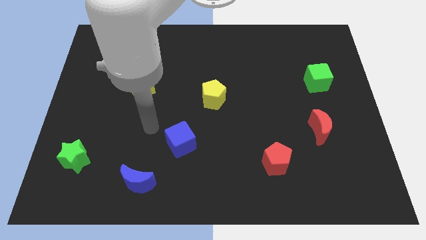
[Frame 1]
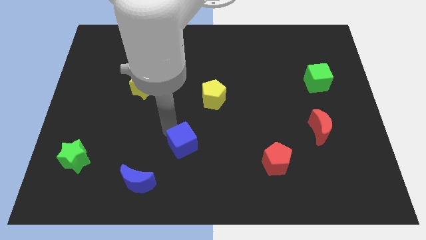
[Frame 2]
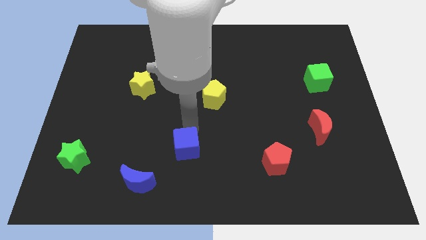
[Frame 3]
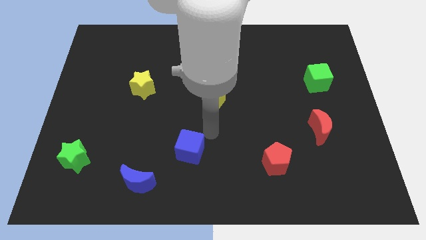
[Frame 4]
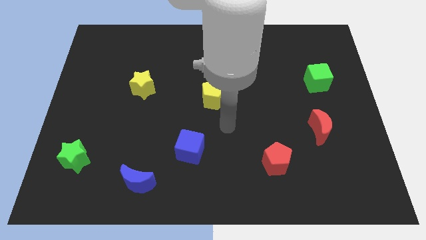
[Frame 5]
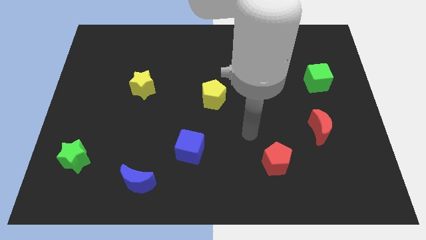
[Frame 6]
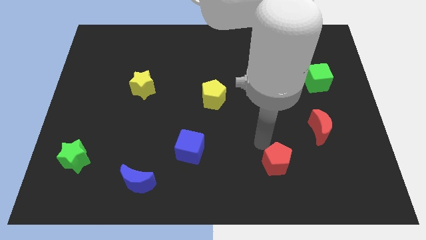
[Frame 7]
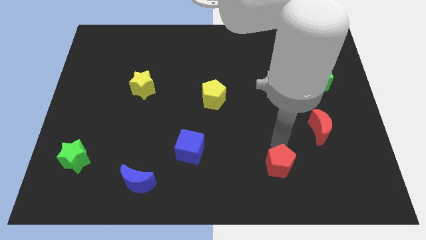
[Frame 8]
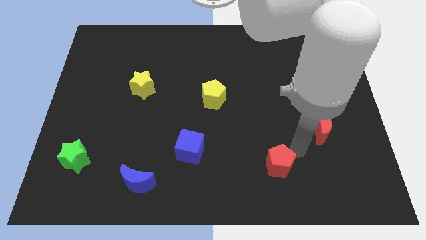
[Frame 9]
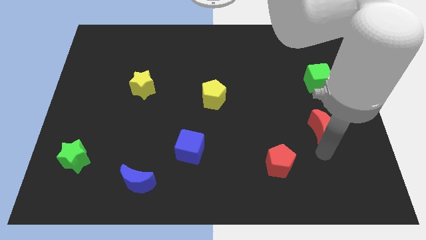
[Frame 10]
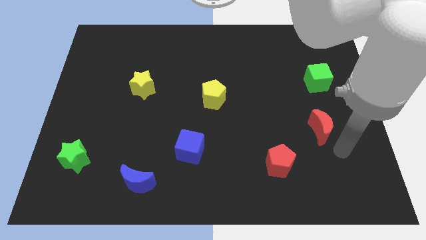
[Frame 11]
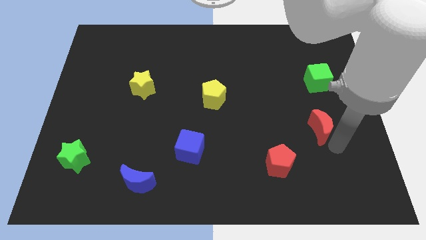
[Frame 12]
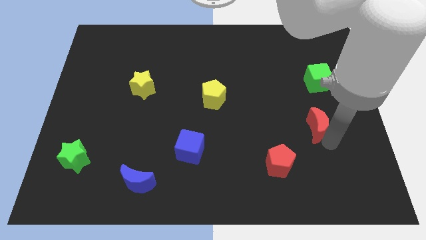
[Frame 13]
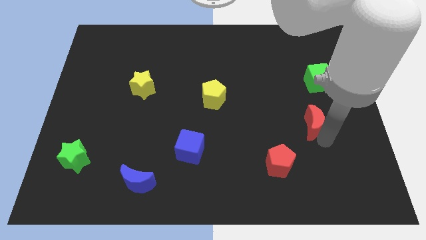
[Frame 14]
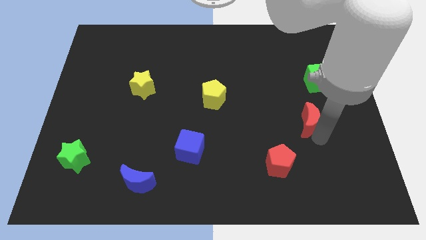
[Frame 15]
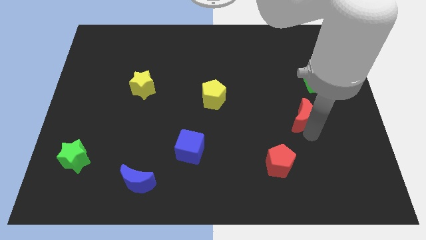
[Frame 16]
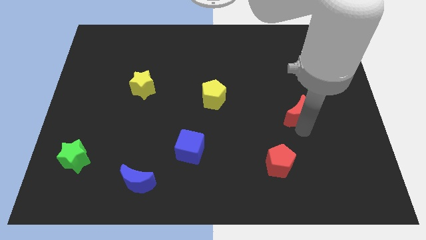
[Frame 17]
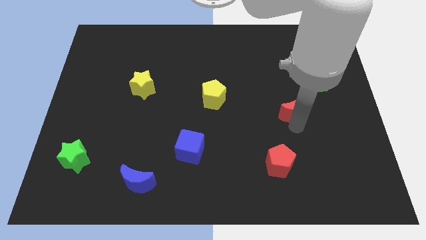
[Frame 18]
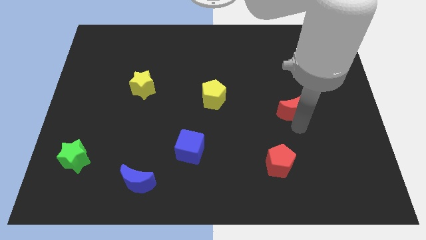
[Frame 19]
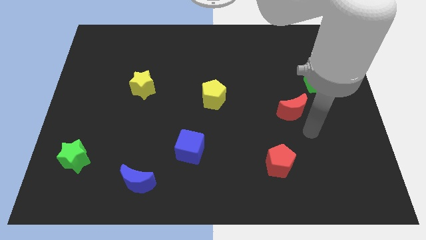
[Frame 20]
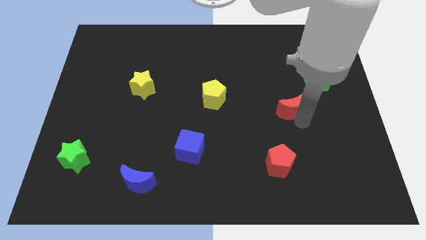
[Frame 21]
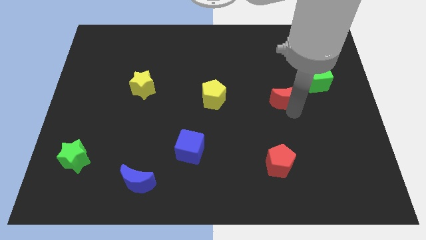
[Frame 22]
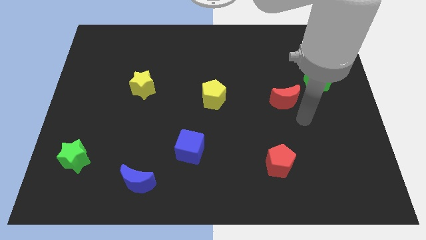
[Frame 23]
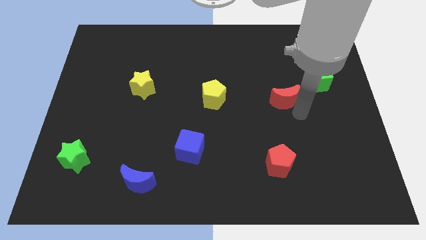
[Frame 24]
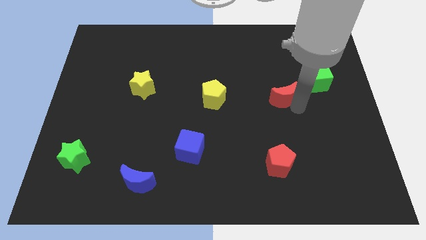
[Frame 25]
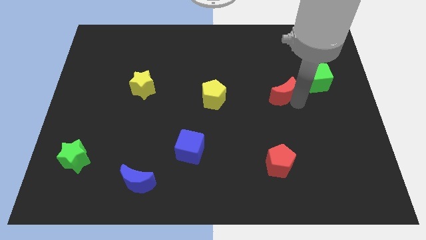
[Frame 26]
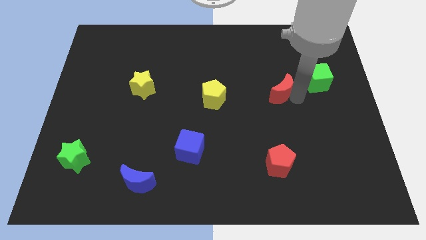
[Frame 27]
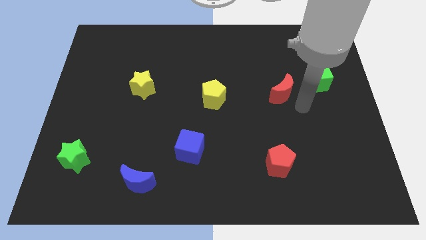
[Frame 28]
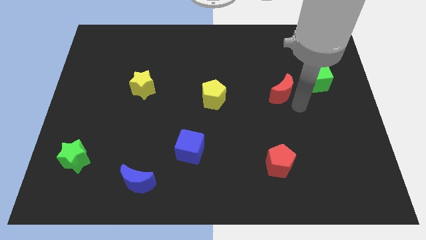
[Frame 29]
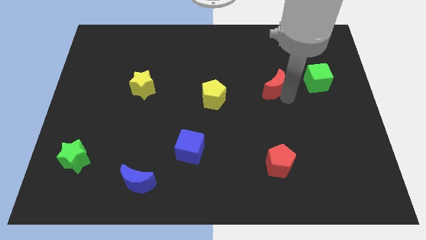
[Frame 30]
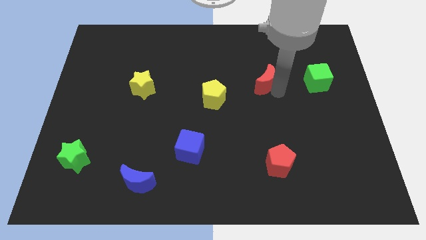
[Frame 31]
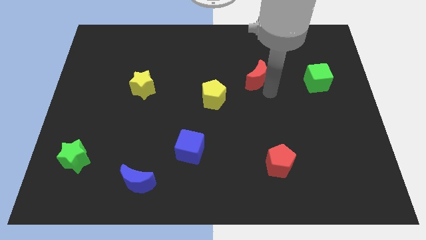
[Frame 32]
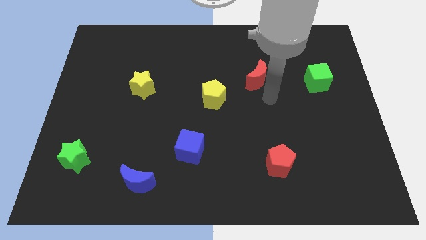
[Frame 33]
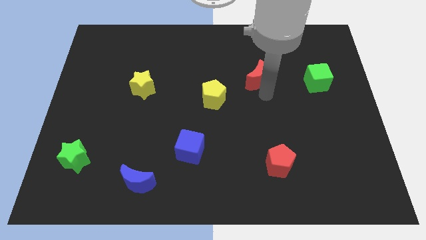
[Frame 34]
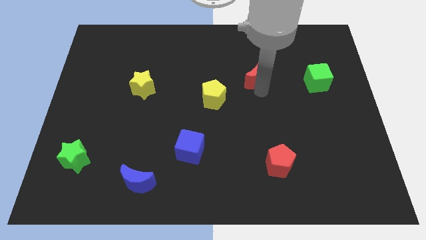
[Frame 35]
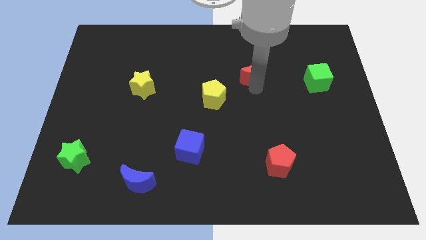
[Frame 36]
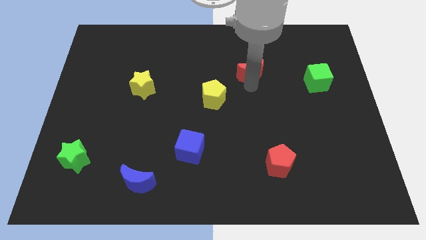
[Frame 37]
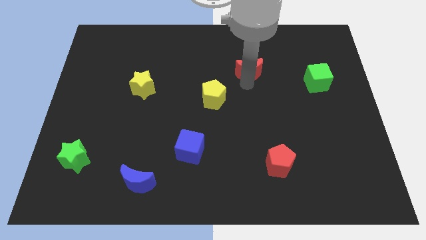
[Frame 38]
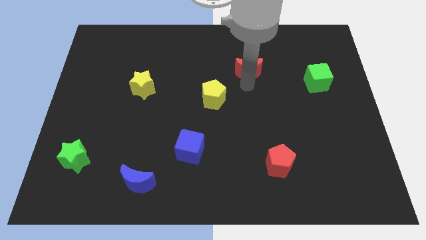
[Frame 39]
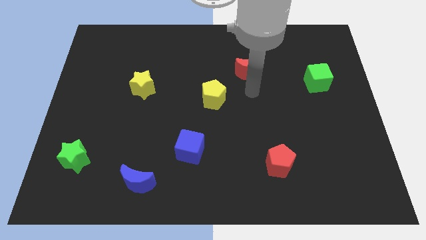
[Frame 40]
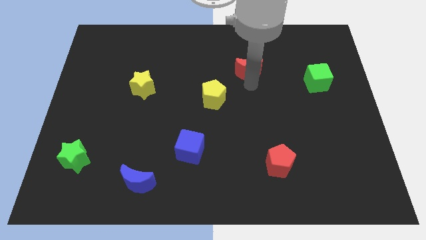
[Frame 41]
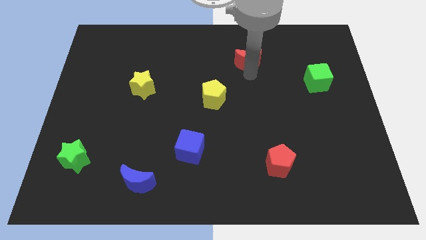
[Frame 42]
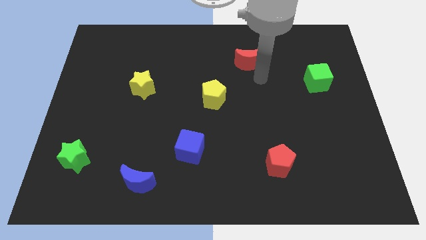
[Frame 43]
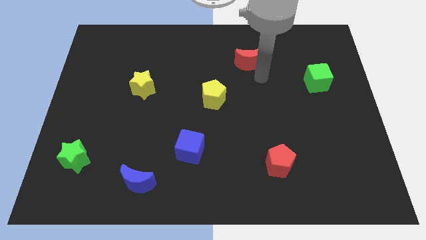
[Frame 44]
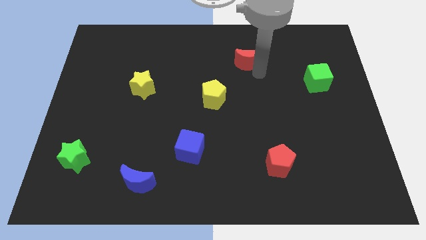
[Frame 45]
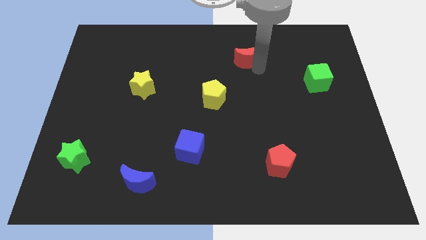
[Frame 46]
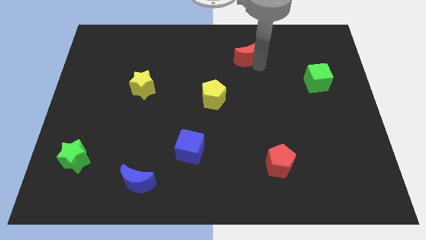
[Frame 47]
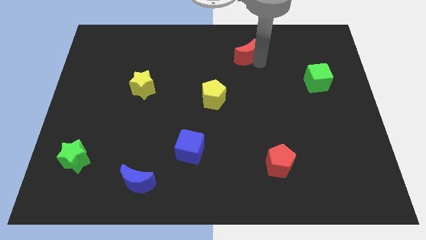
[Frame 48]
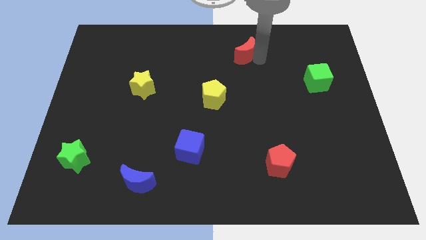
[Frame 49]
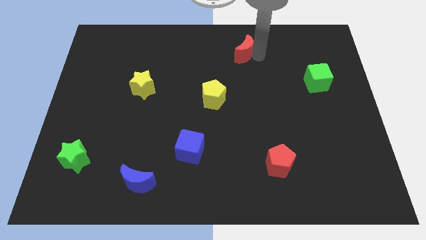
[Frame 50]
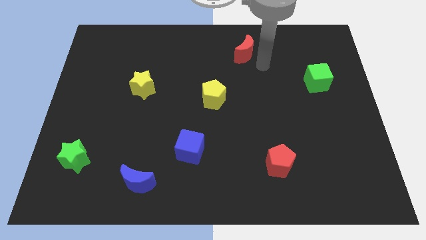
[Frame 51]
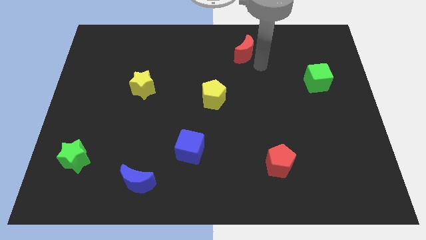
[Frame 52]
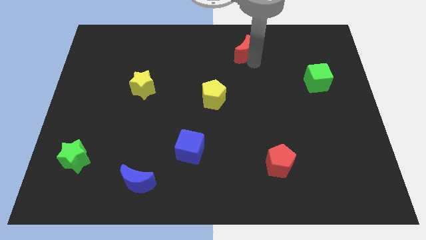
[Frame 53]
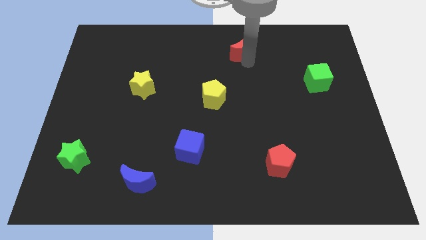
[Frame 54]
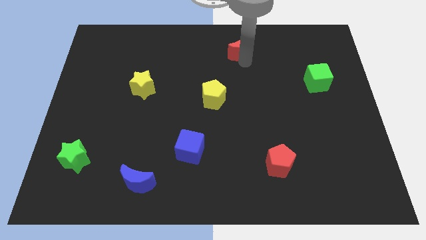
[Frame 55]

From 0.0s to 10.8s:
put the red moon to the top

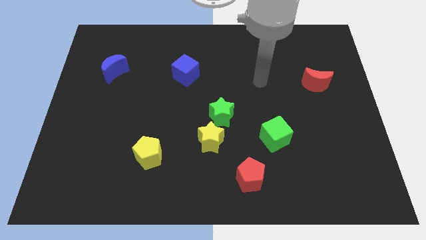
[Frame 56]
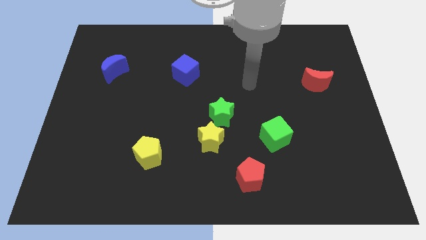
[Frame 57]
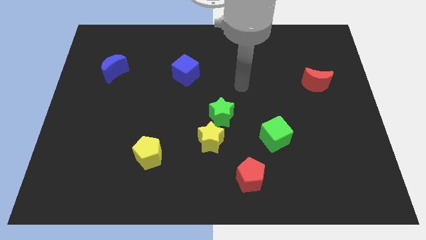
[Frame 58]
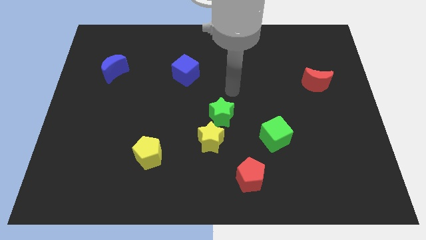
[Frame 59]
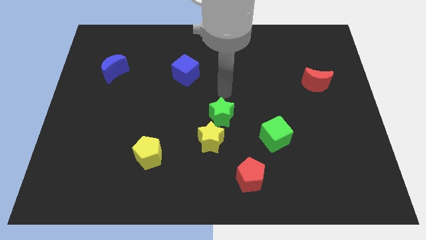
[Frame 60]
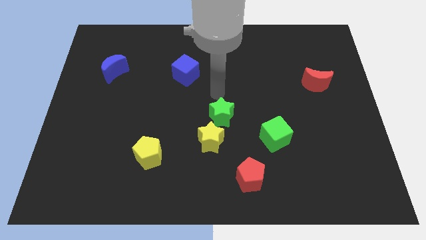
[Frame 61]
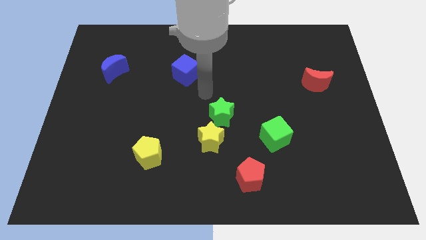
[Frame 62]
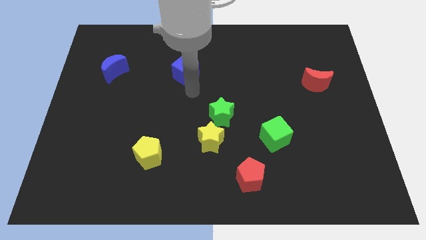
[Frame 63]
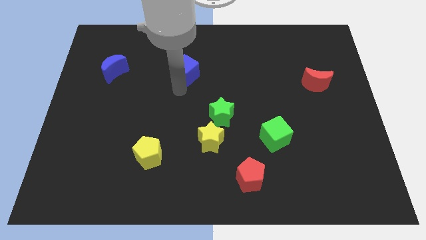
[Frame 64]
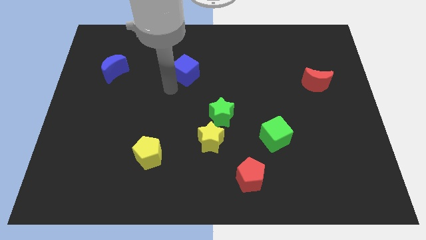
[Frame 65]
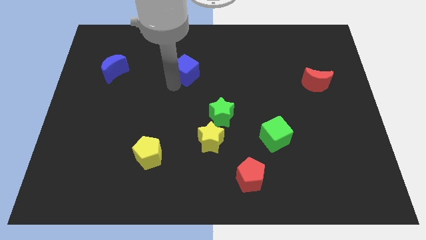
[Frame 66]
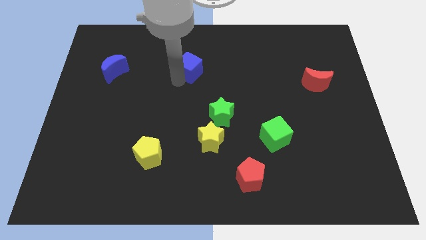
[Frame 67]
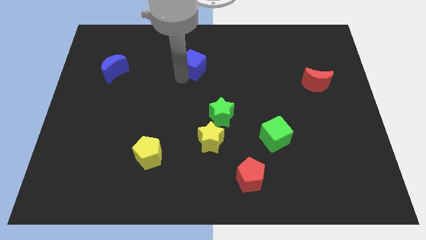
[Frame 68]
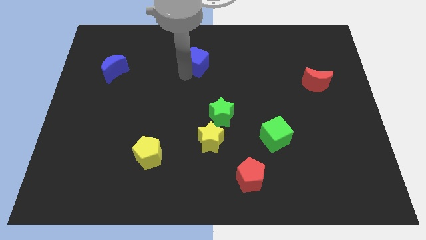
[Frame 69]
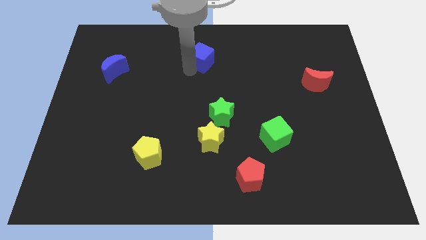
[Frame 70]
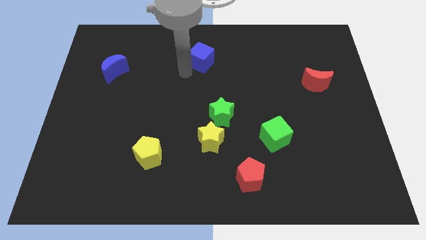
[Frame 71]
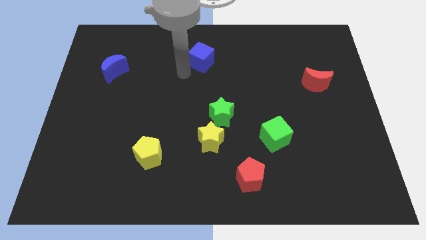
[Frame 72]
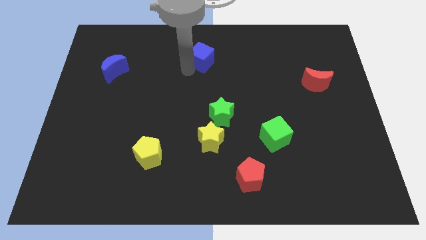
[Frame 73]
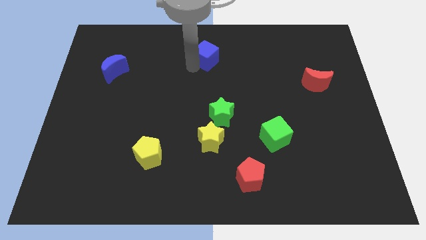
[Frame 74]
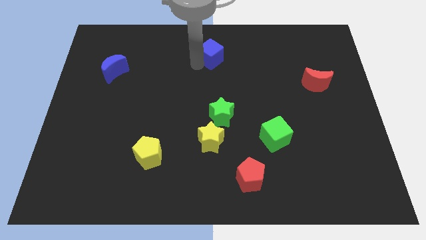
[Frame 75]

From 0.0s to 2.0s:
push the blue cube to the towards your base

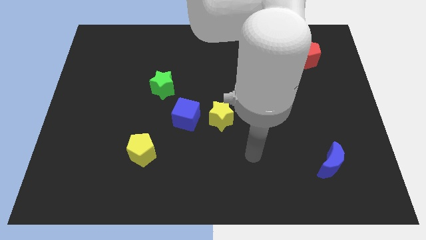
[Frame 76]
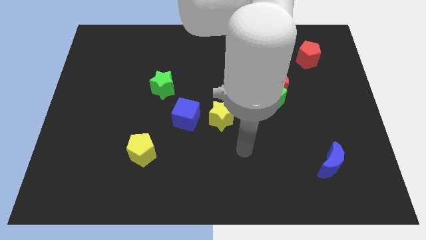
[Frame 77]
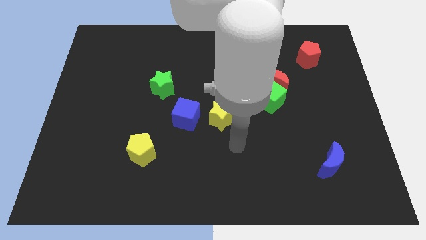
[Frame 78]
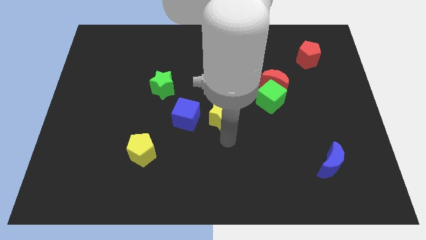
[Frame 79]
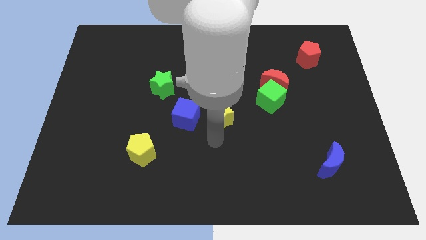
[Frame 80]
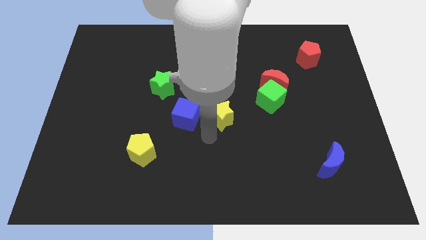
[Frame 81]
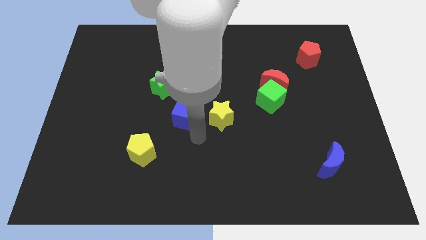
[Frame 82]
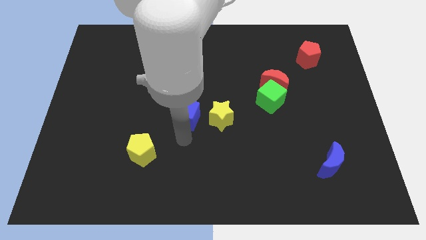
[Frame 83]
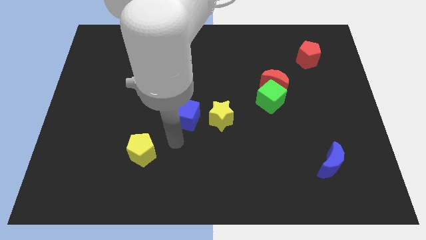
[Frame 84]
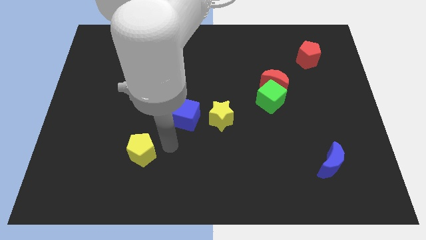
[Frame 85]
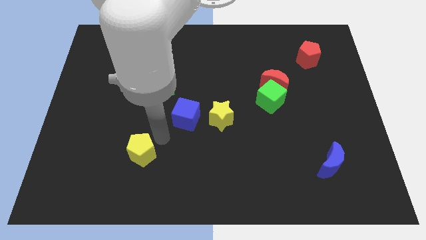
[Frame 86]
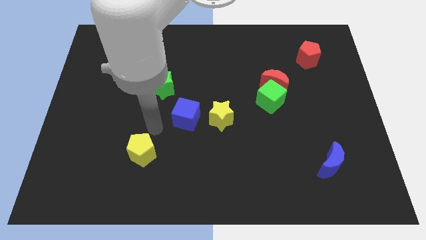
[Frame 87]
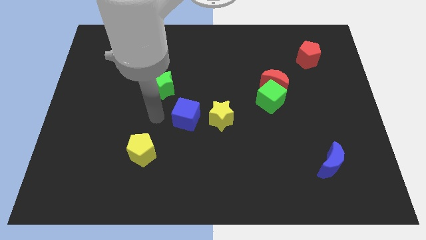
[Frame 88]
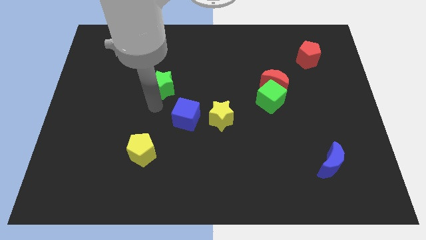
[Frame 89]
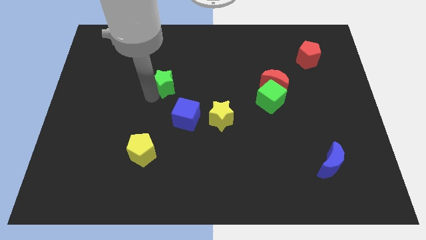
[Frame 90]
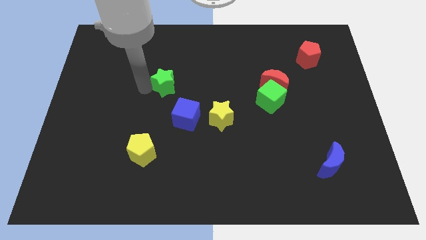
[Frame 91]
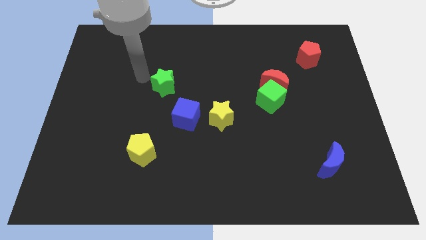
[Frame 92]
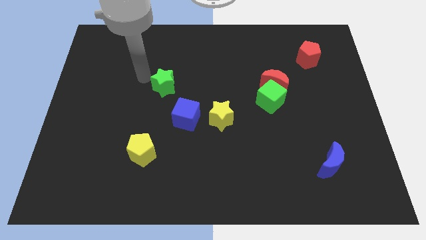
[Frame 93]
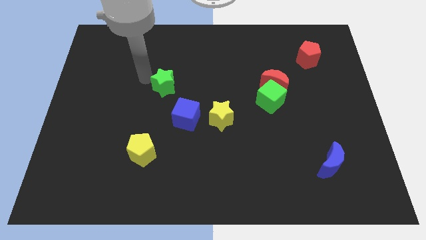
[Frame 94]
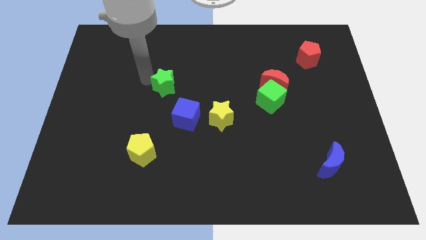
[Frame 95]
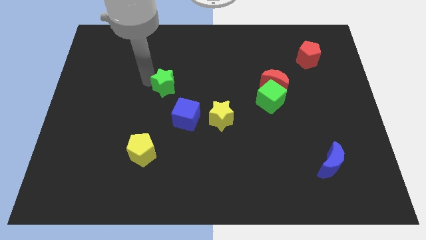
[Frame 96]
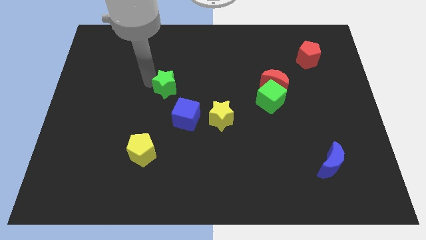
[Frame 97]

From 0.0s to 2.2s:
push the green star to the center of the board
